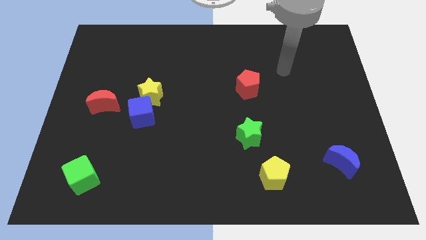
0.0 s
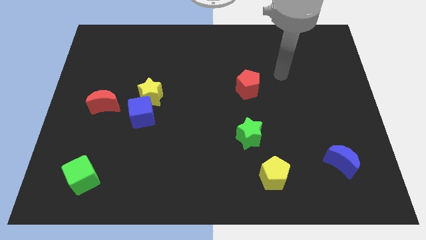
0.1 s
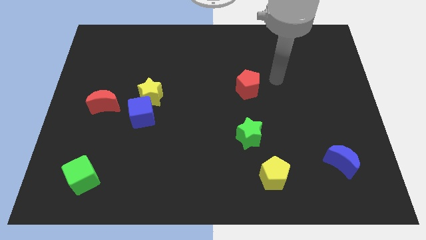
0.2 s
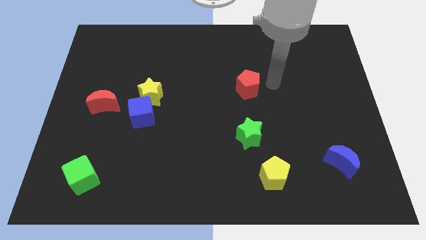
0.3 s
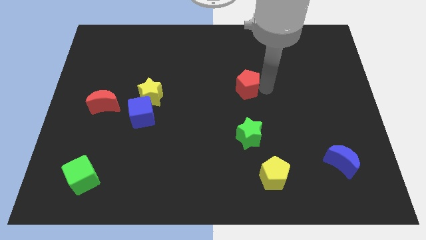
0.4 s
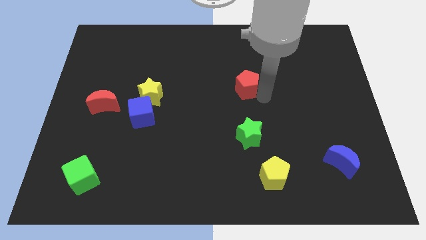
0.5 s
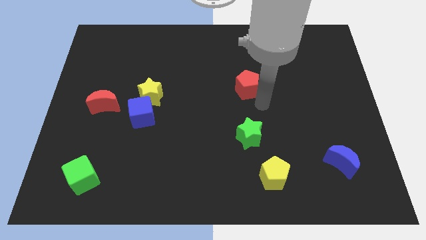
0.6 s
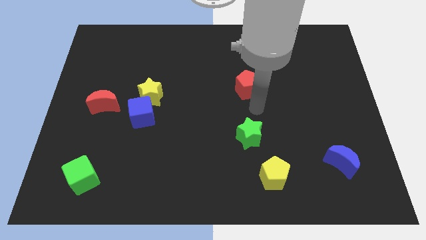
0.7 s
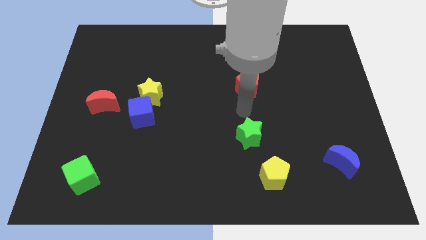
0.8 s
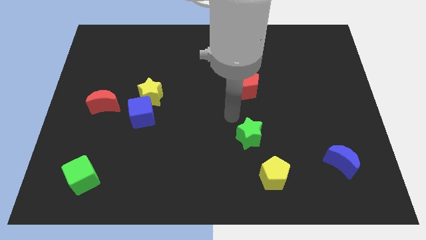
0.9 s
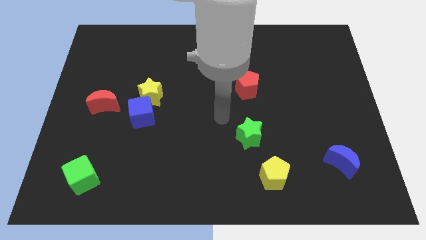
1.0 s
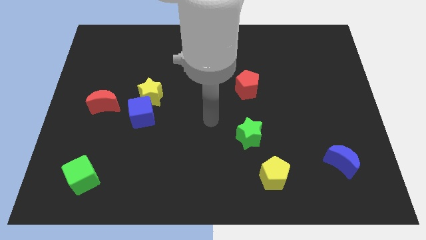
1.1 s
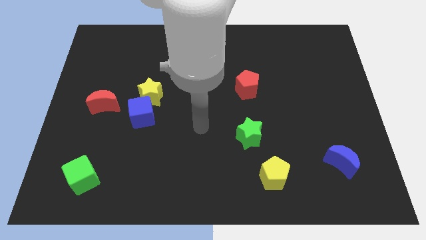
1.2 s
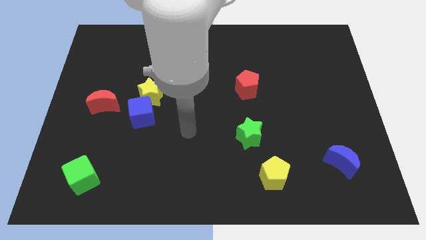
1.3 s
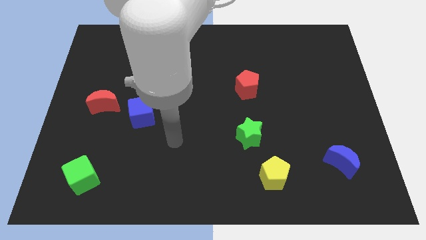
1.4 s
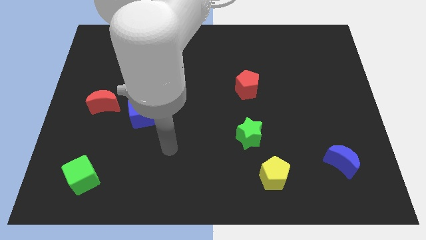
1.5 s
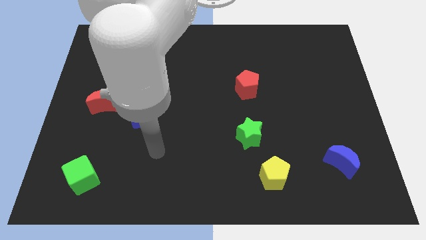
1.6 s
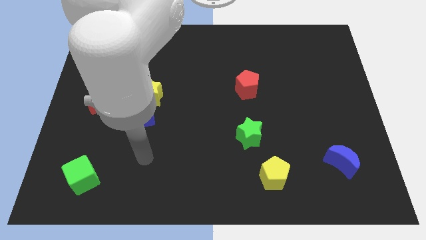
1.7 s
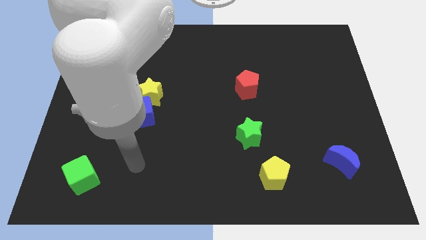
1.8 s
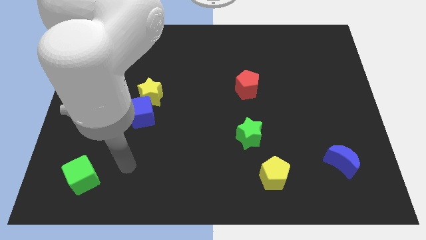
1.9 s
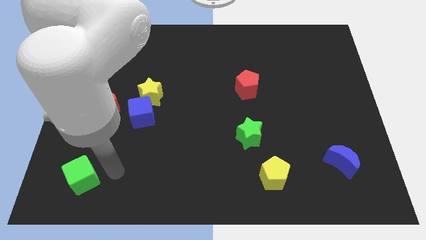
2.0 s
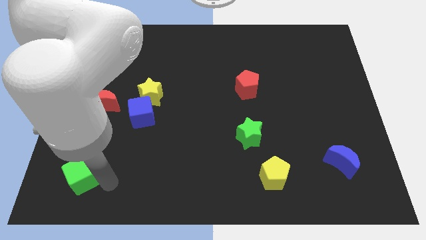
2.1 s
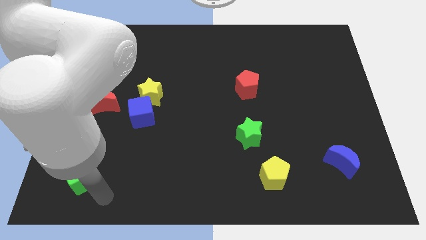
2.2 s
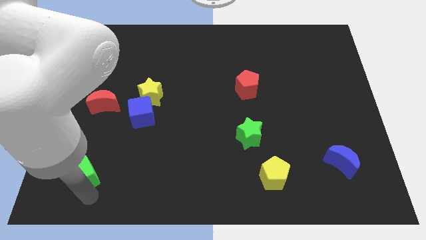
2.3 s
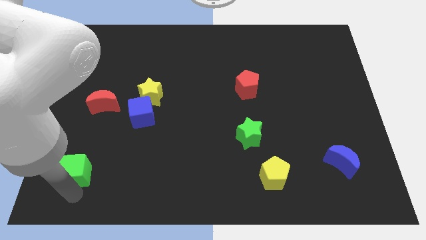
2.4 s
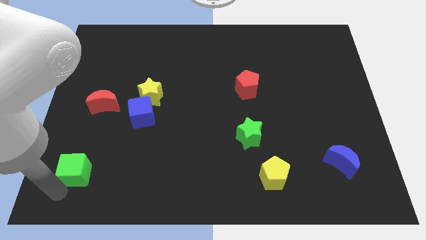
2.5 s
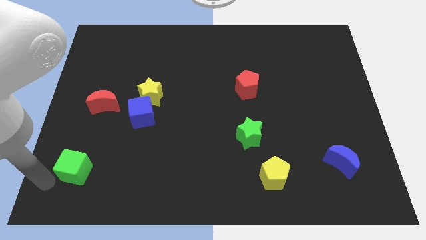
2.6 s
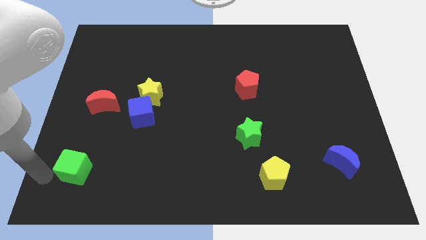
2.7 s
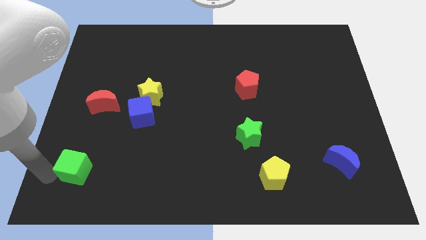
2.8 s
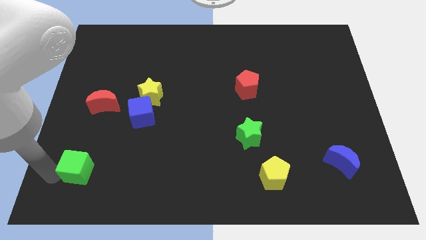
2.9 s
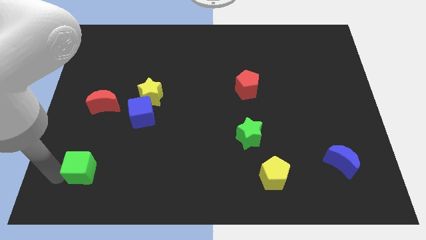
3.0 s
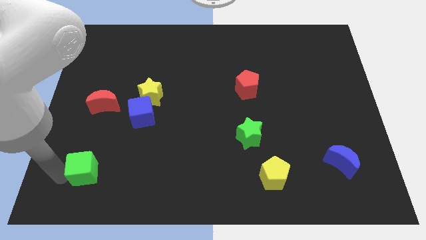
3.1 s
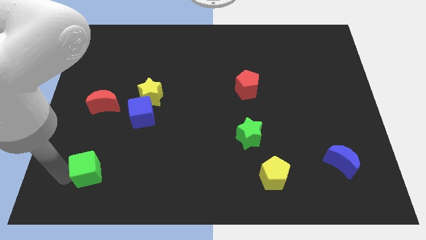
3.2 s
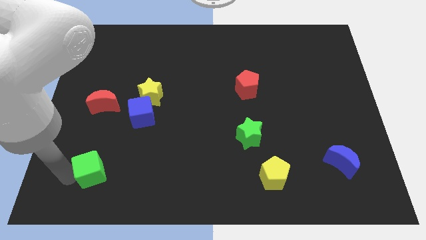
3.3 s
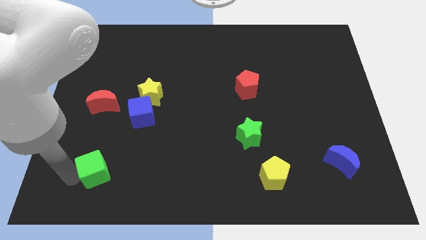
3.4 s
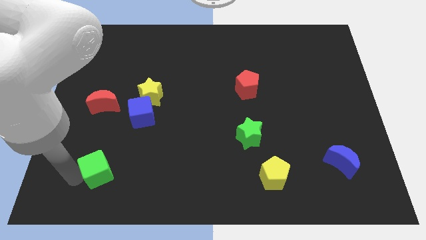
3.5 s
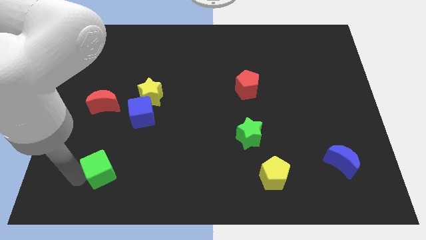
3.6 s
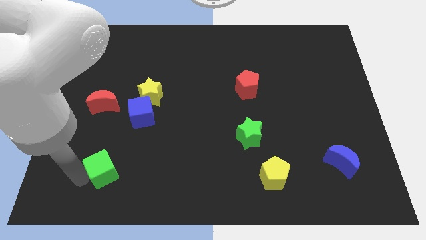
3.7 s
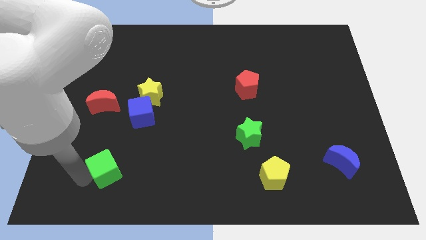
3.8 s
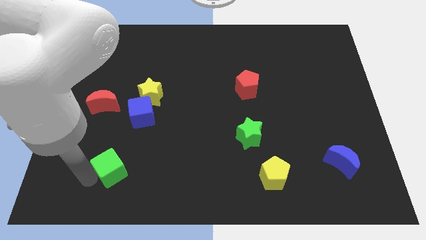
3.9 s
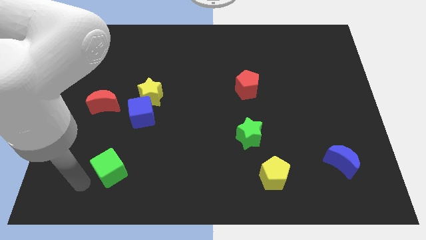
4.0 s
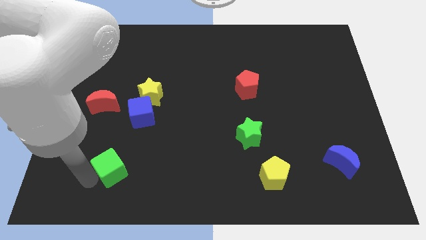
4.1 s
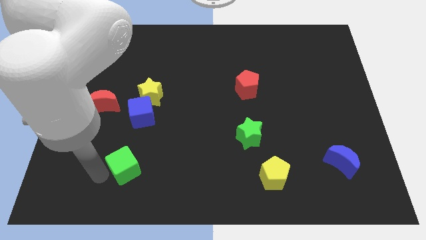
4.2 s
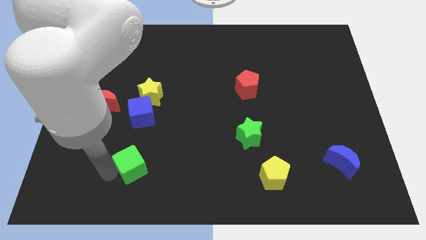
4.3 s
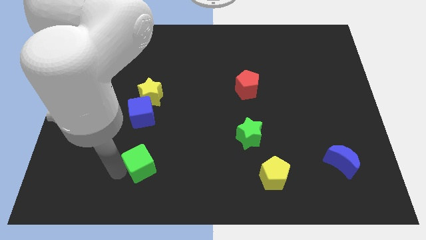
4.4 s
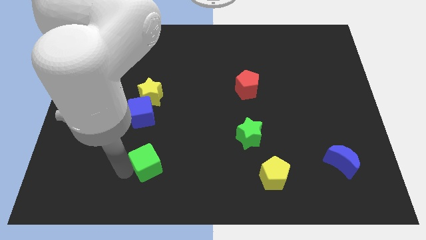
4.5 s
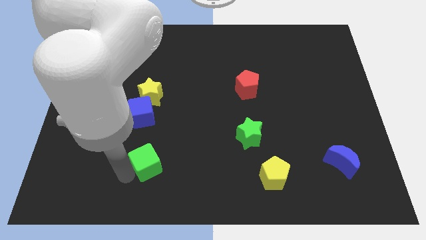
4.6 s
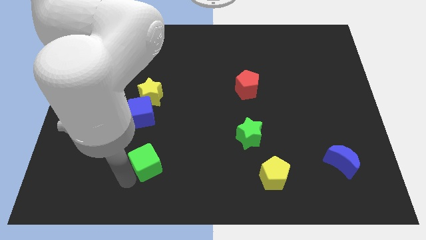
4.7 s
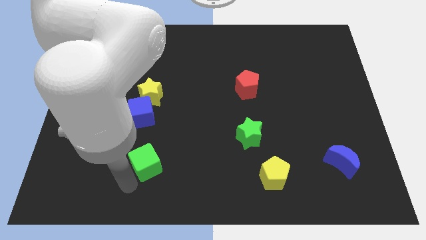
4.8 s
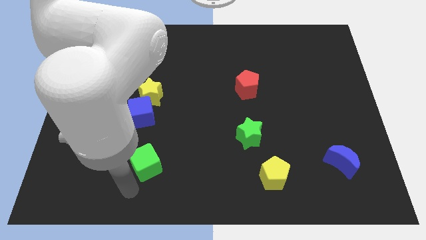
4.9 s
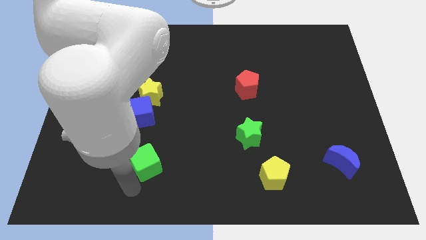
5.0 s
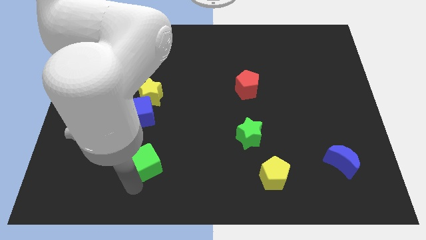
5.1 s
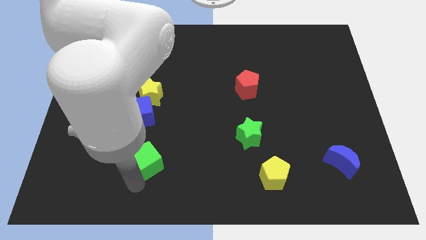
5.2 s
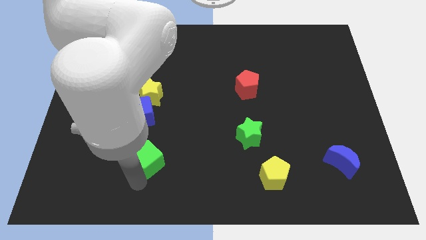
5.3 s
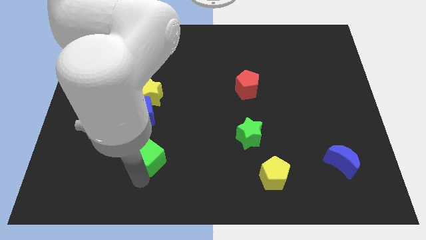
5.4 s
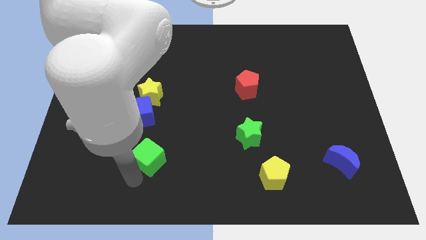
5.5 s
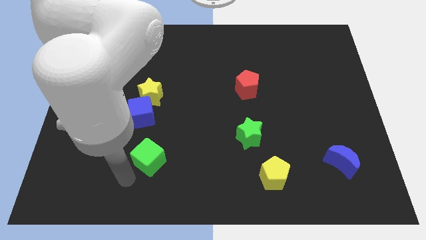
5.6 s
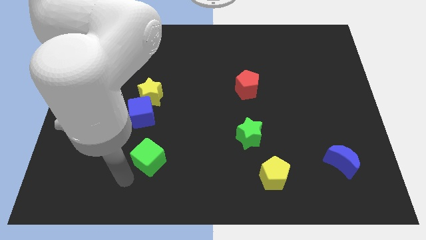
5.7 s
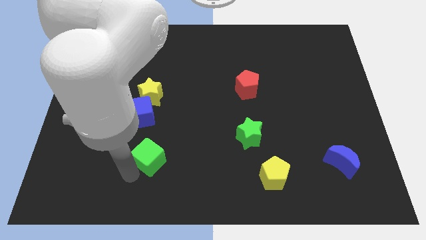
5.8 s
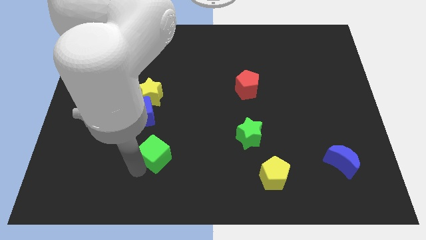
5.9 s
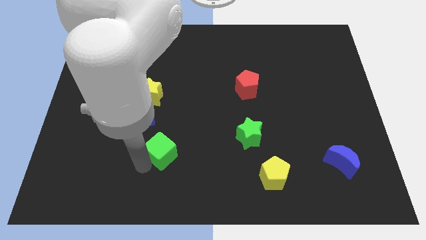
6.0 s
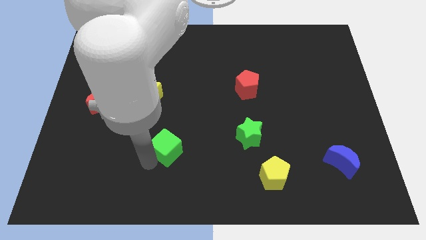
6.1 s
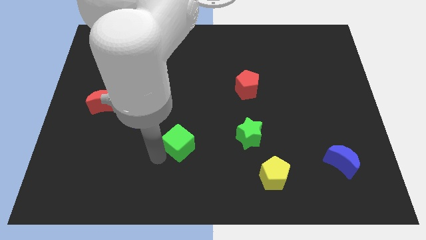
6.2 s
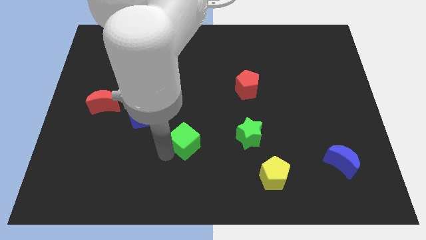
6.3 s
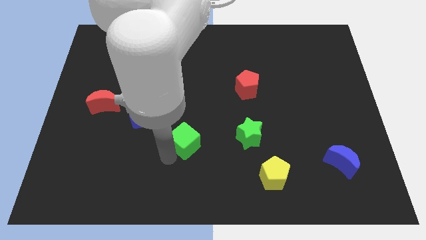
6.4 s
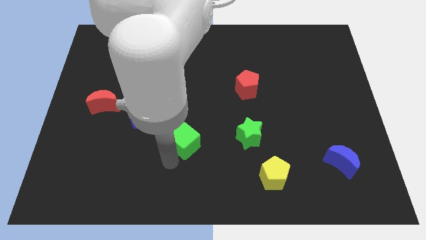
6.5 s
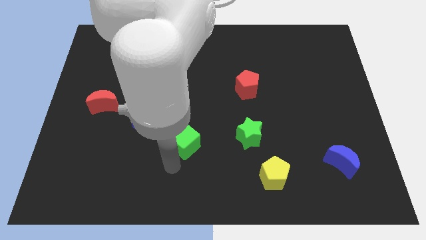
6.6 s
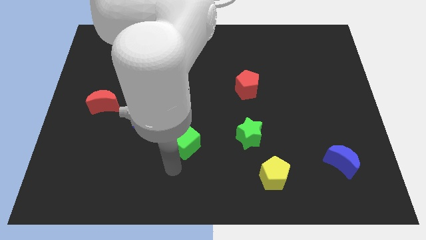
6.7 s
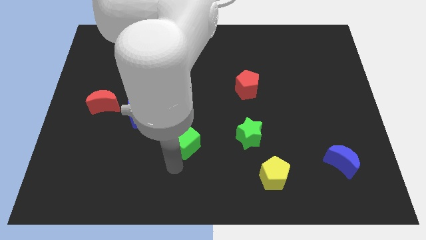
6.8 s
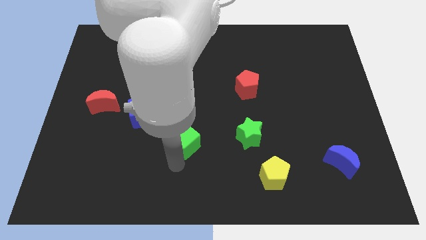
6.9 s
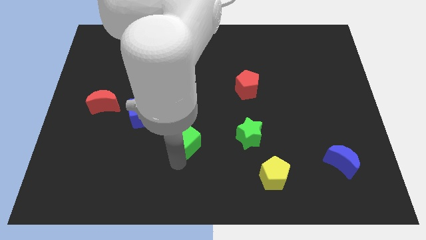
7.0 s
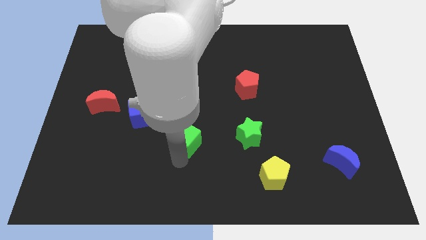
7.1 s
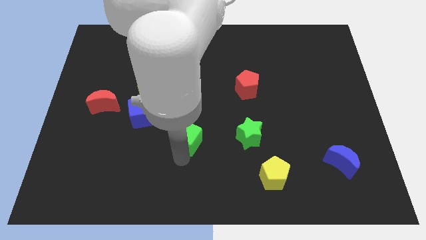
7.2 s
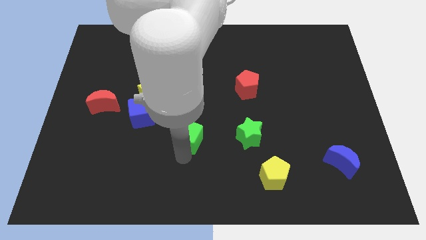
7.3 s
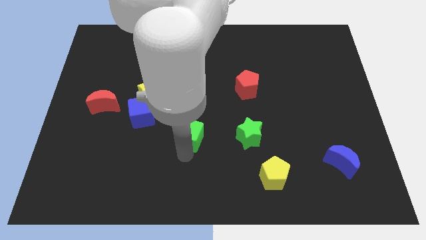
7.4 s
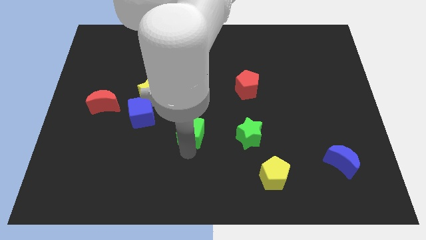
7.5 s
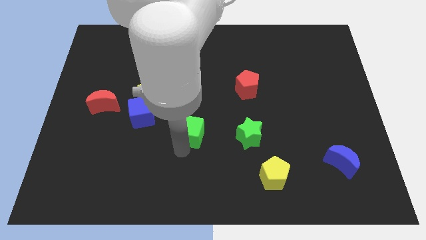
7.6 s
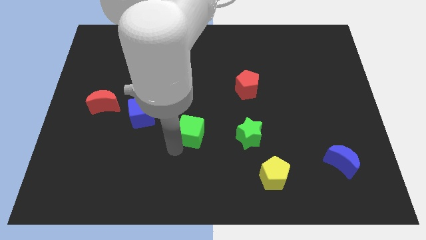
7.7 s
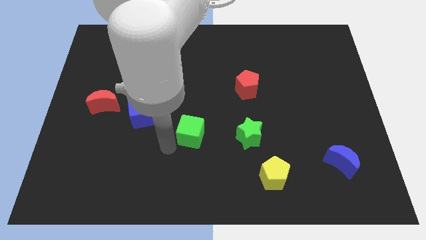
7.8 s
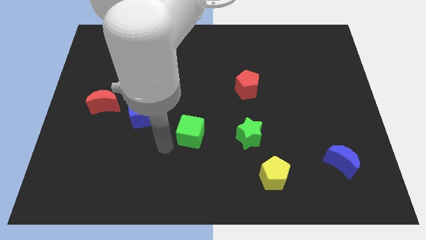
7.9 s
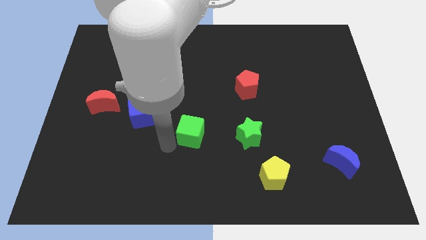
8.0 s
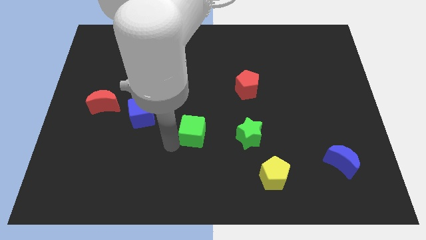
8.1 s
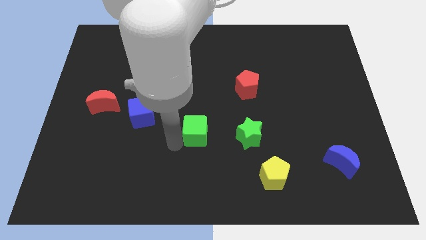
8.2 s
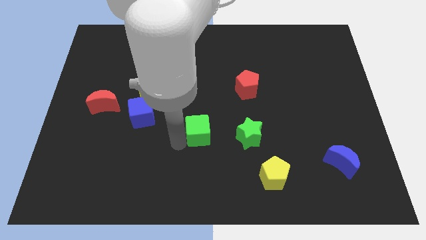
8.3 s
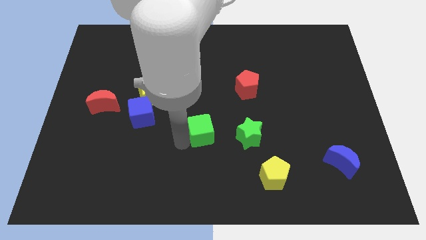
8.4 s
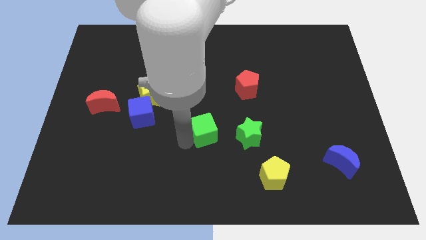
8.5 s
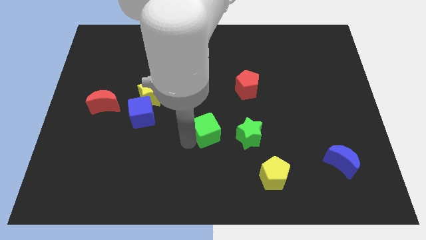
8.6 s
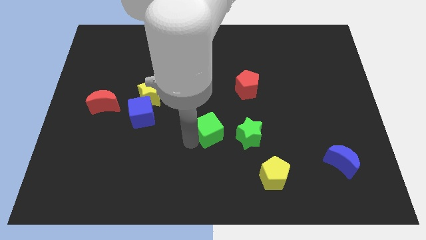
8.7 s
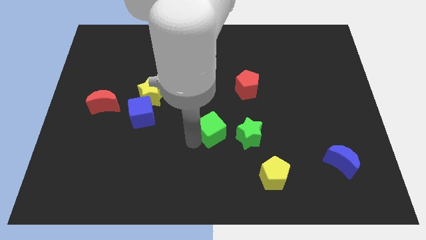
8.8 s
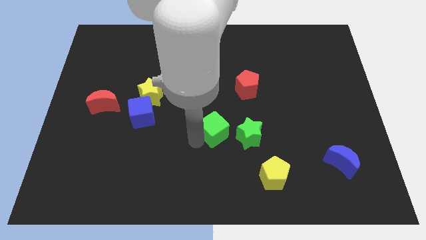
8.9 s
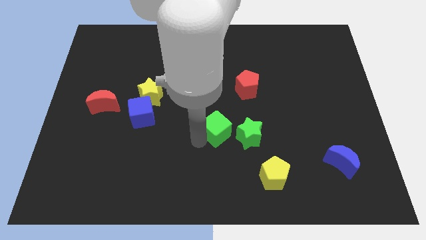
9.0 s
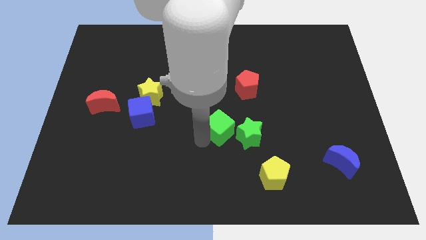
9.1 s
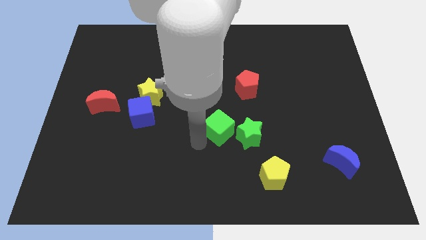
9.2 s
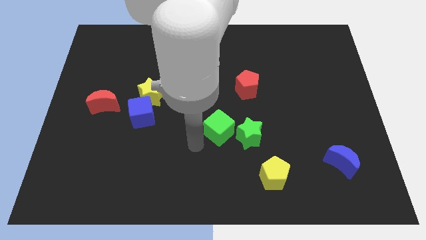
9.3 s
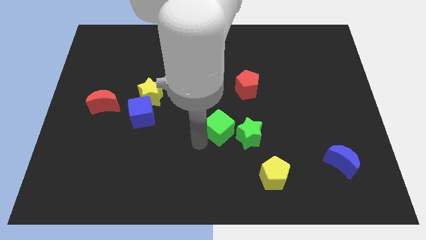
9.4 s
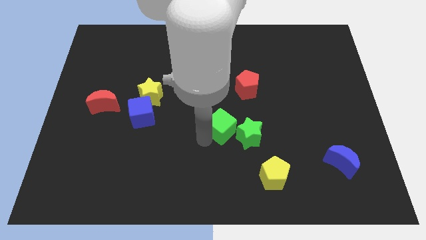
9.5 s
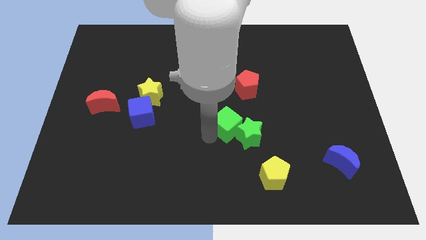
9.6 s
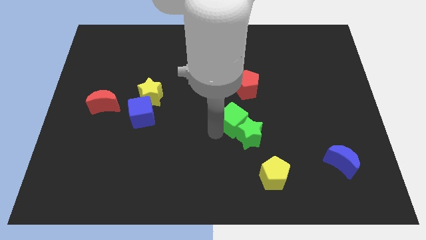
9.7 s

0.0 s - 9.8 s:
put the green cube to the bottom side of the red pentagon
